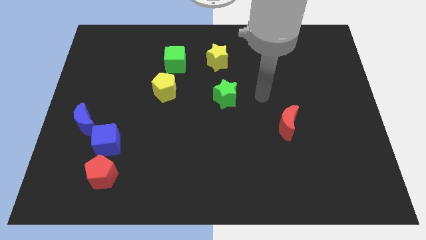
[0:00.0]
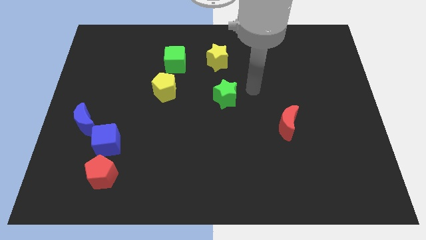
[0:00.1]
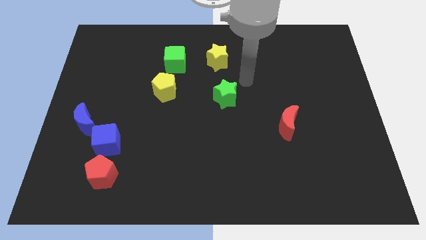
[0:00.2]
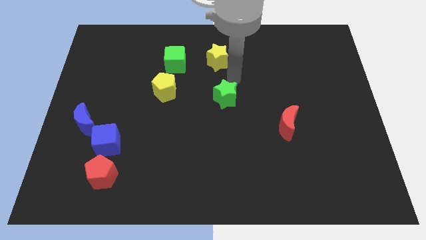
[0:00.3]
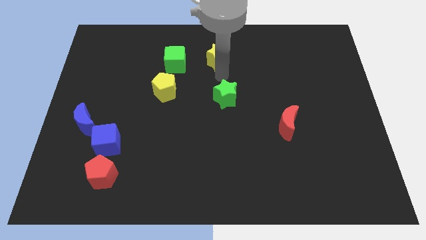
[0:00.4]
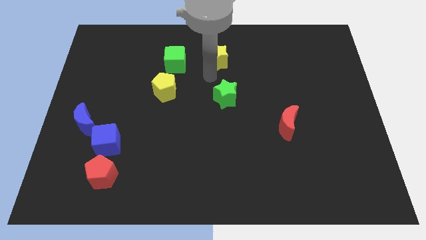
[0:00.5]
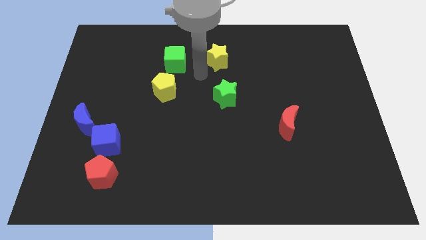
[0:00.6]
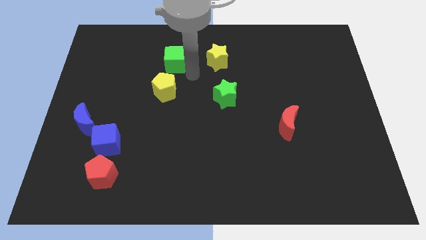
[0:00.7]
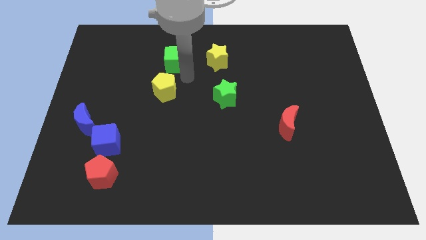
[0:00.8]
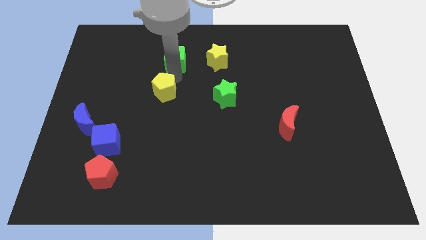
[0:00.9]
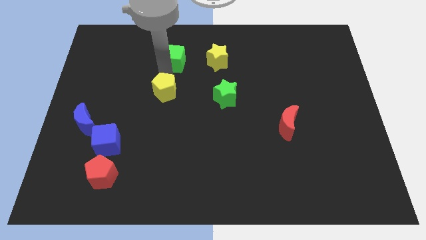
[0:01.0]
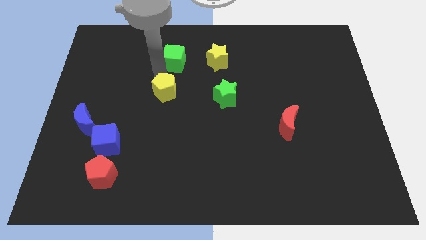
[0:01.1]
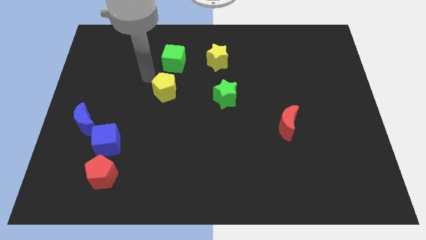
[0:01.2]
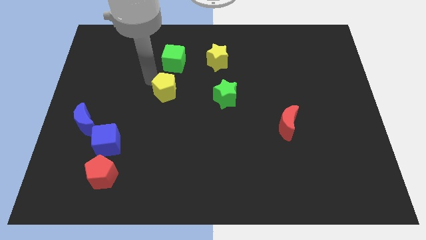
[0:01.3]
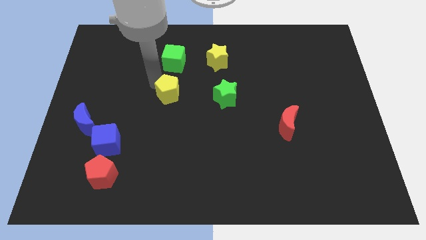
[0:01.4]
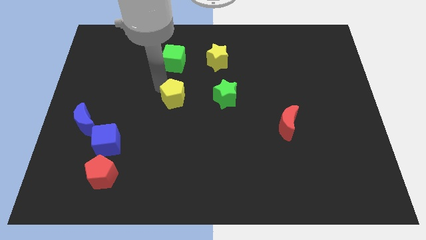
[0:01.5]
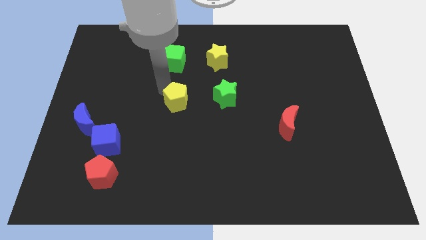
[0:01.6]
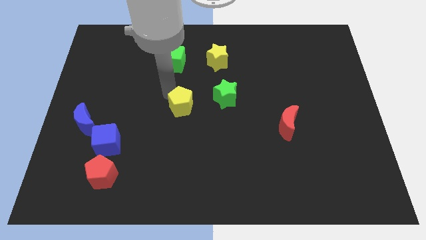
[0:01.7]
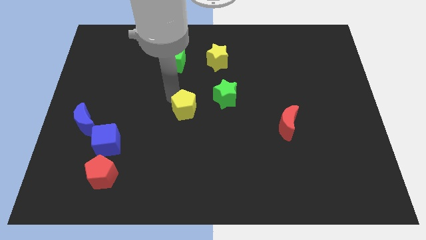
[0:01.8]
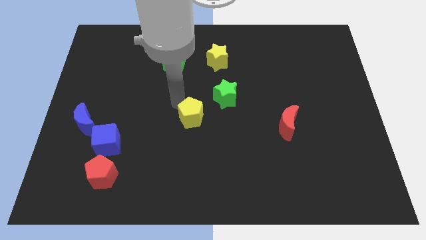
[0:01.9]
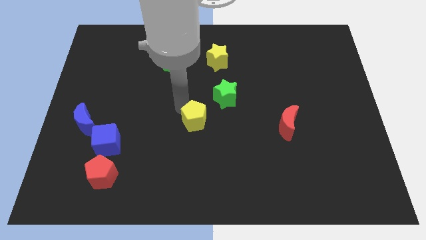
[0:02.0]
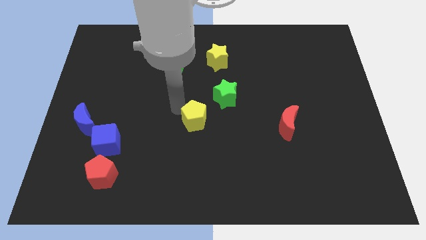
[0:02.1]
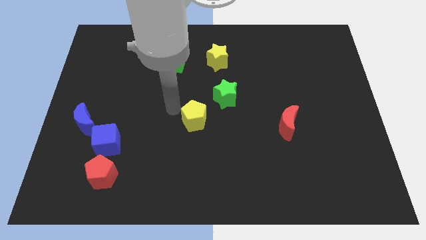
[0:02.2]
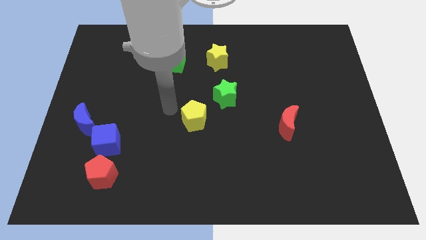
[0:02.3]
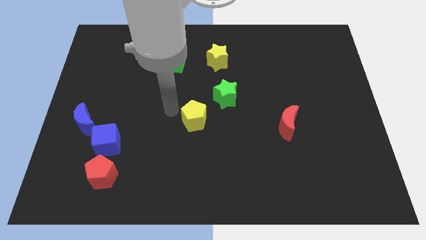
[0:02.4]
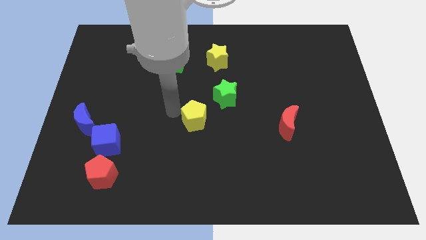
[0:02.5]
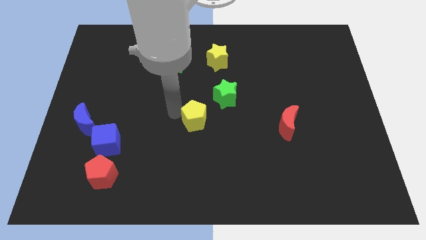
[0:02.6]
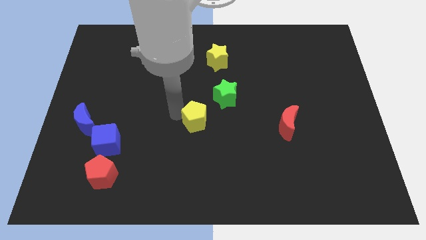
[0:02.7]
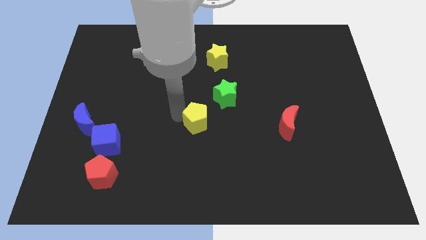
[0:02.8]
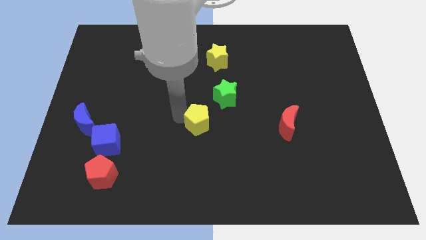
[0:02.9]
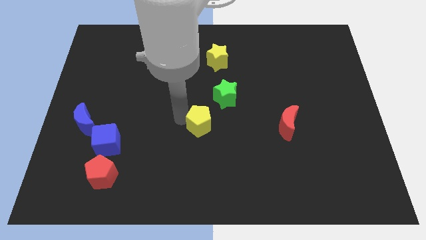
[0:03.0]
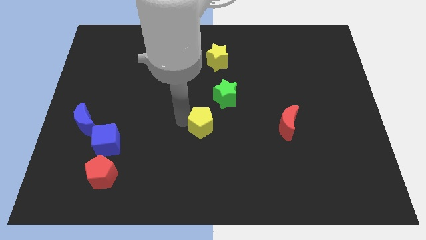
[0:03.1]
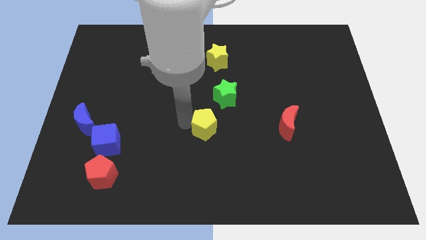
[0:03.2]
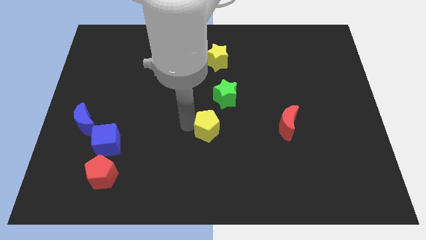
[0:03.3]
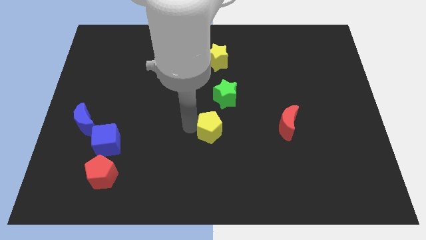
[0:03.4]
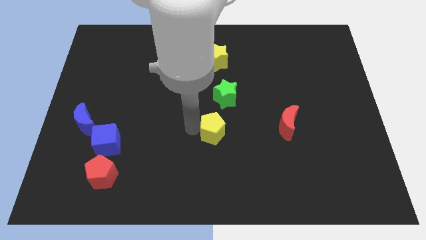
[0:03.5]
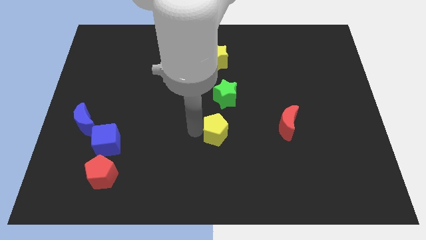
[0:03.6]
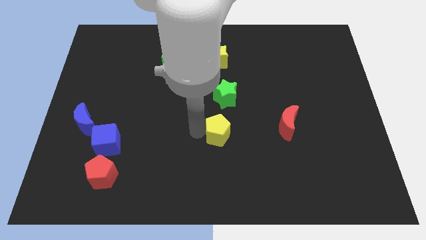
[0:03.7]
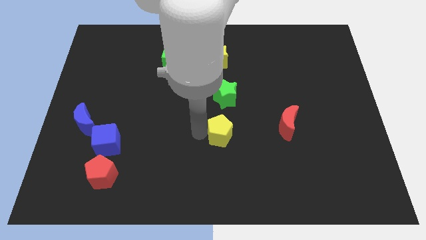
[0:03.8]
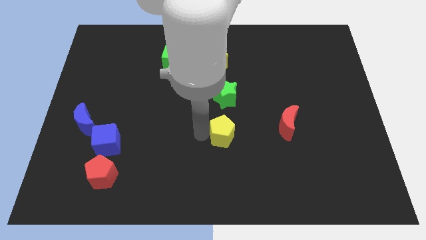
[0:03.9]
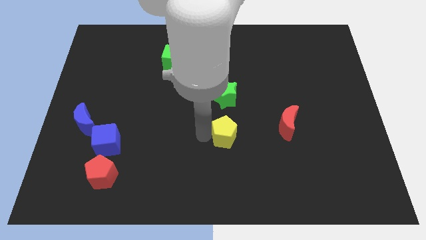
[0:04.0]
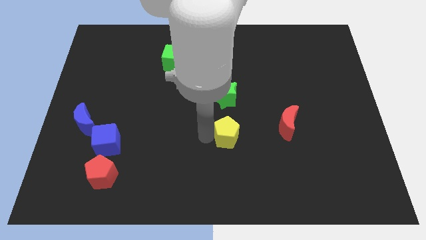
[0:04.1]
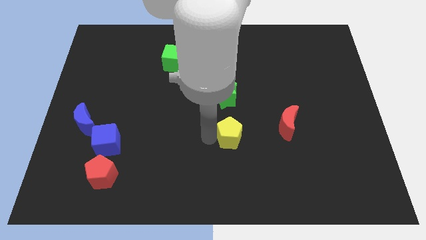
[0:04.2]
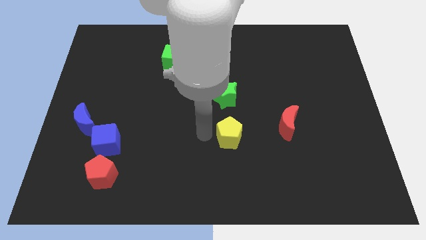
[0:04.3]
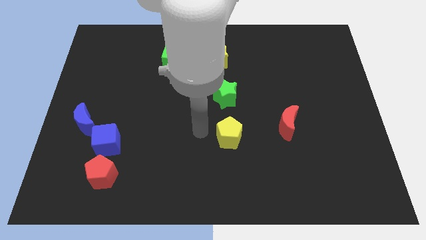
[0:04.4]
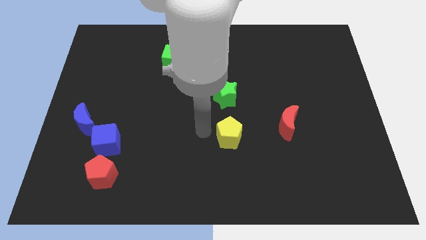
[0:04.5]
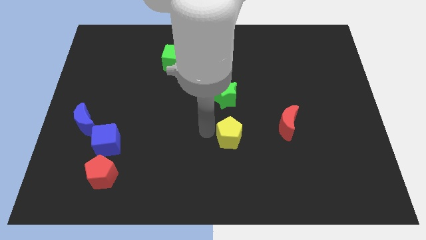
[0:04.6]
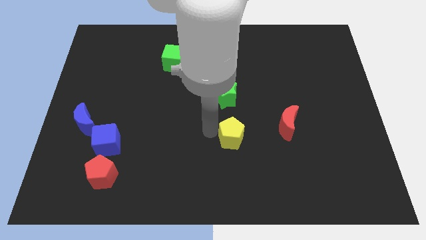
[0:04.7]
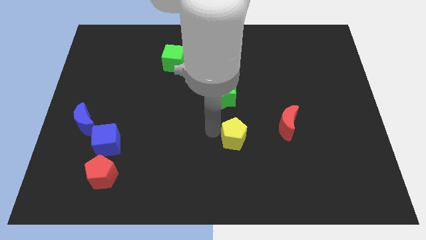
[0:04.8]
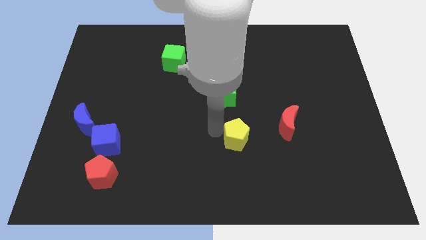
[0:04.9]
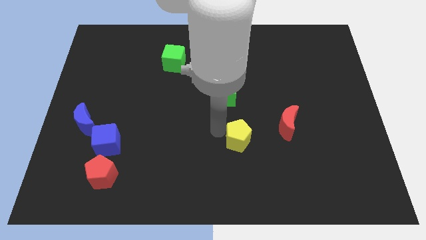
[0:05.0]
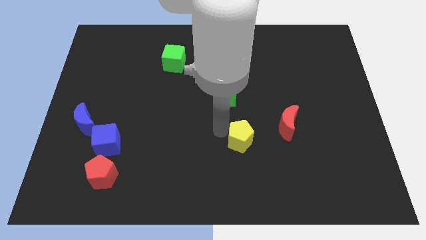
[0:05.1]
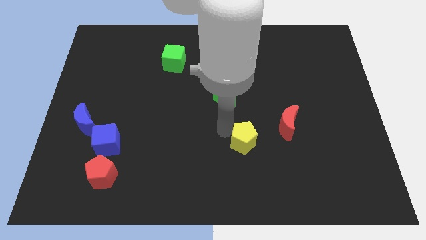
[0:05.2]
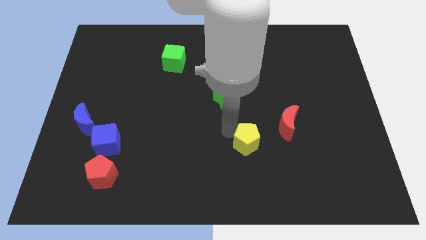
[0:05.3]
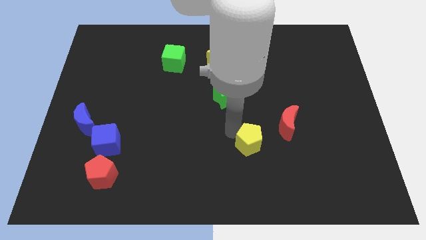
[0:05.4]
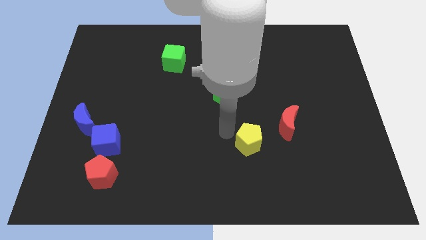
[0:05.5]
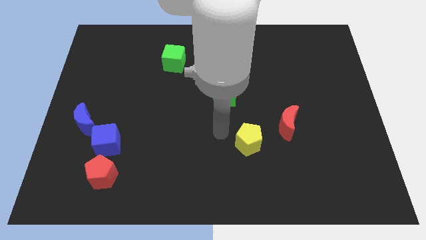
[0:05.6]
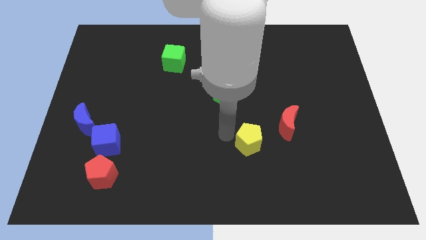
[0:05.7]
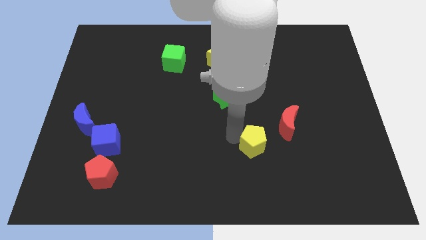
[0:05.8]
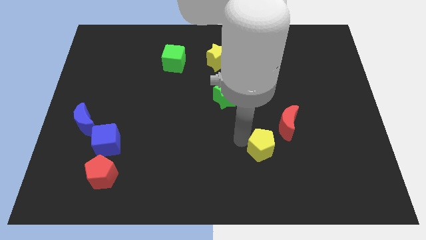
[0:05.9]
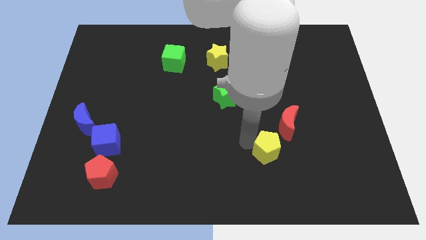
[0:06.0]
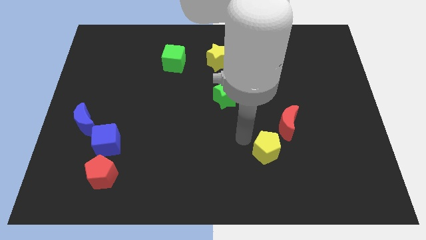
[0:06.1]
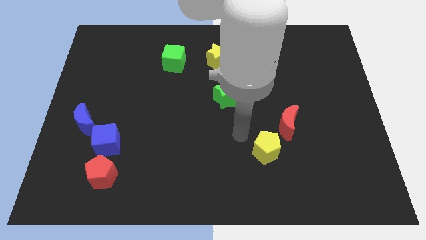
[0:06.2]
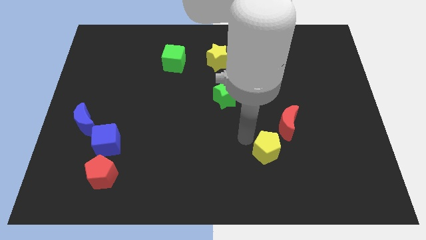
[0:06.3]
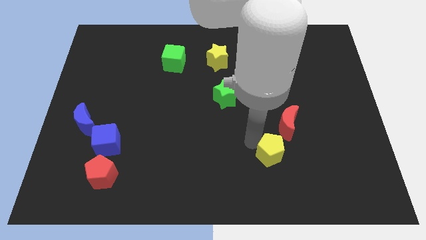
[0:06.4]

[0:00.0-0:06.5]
slide the yellow pentagon to the bottom side of the red moon

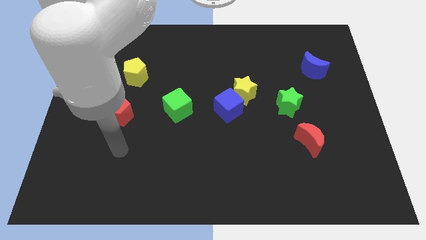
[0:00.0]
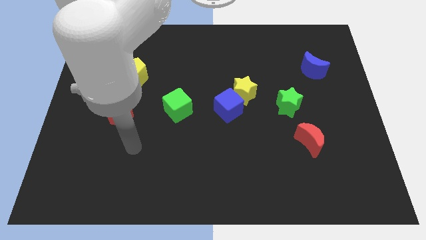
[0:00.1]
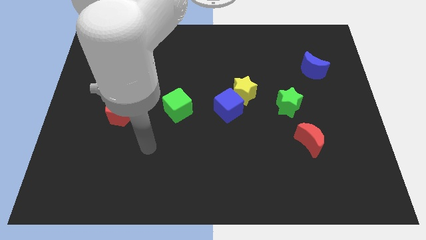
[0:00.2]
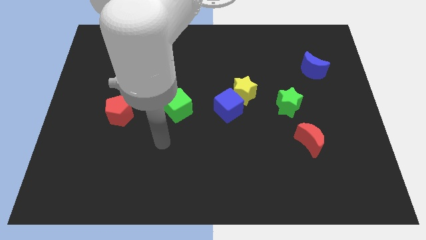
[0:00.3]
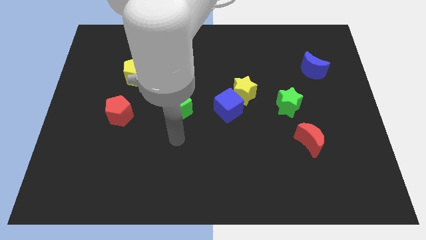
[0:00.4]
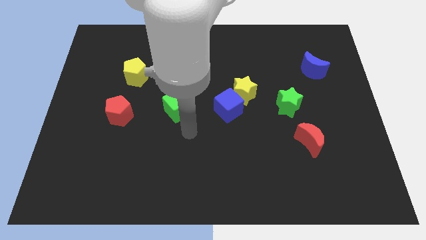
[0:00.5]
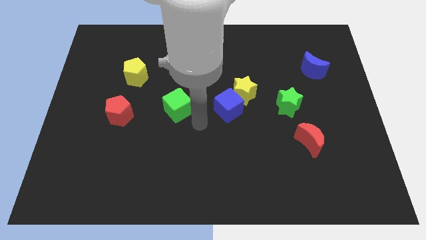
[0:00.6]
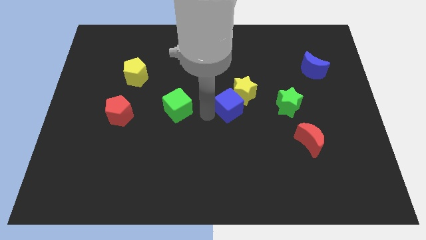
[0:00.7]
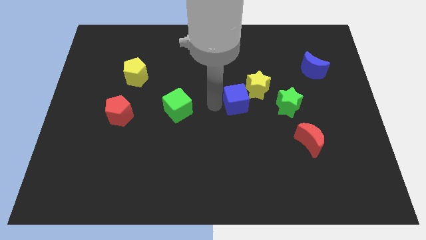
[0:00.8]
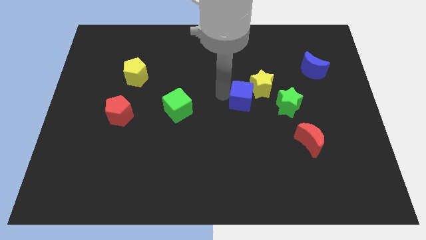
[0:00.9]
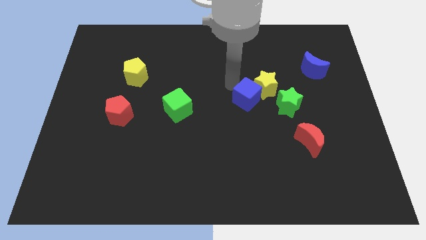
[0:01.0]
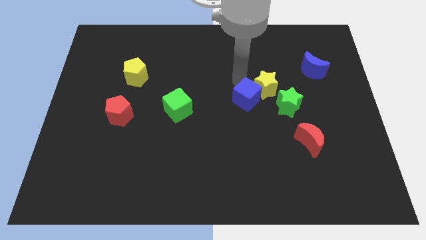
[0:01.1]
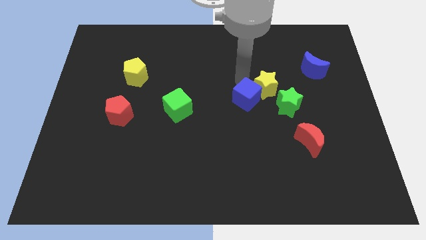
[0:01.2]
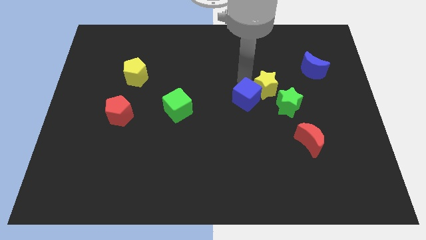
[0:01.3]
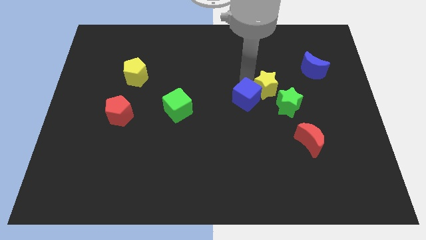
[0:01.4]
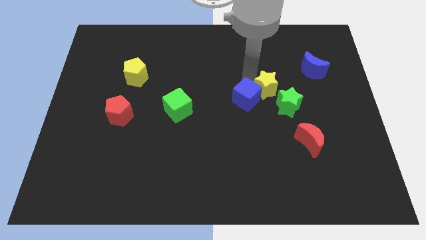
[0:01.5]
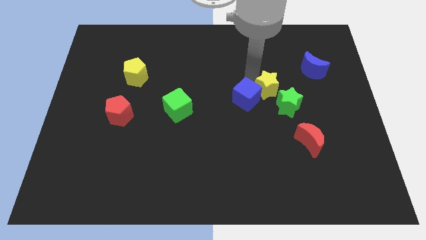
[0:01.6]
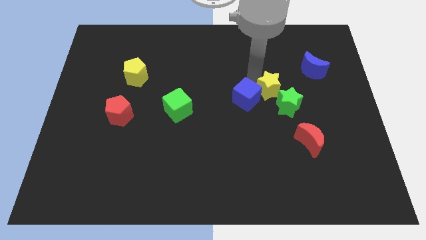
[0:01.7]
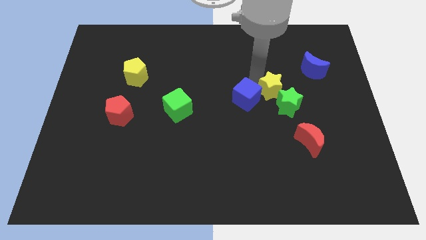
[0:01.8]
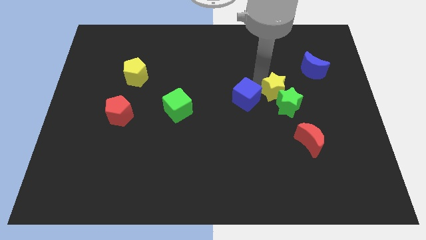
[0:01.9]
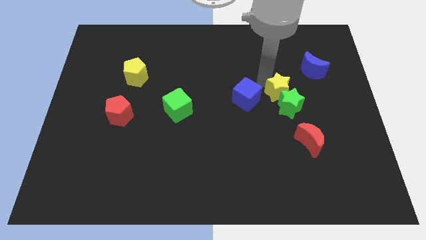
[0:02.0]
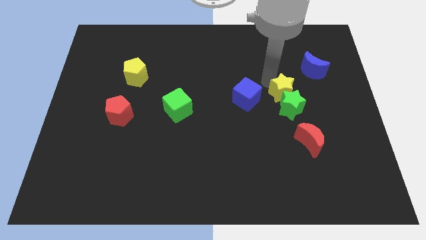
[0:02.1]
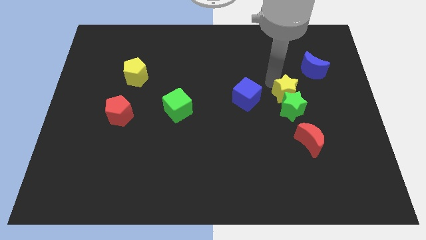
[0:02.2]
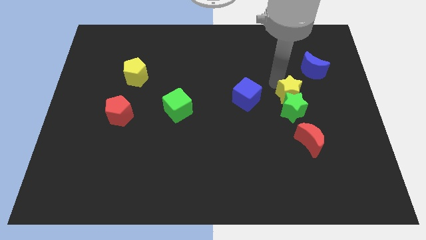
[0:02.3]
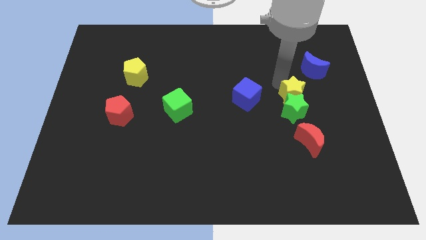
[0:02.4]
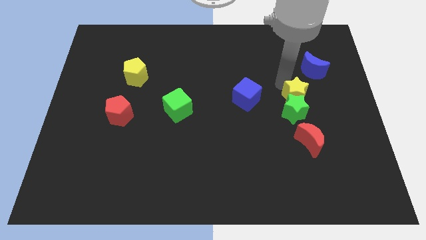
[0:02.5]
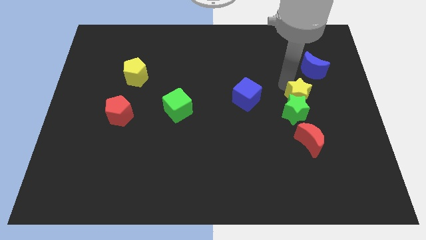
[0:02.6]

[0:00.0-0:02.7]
move the yellow star below the blue moon
